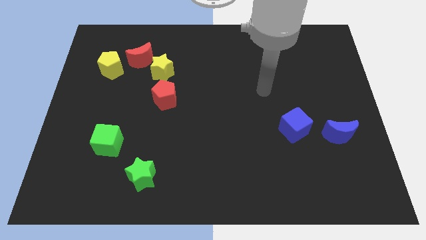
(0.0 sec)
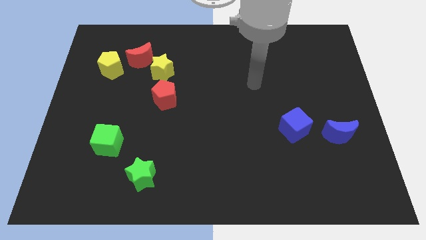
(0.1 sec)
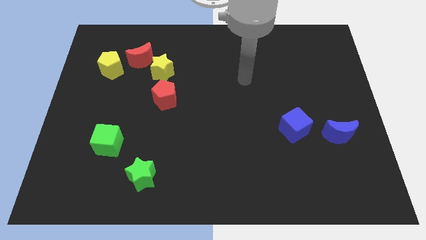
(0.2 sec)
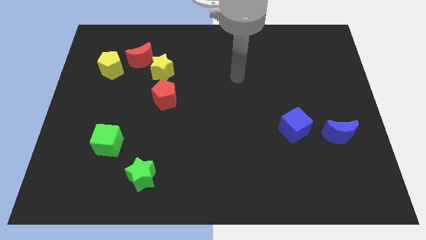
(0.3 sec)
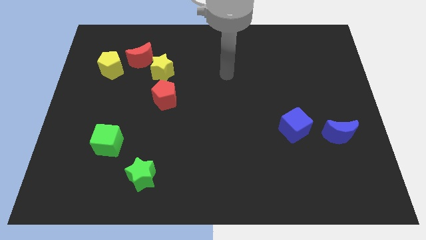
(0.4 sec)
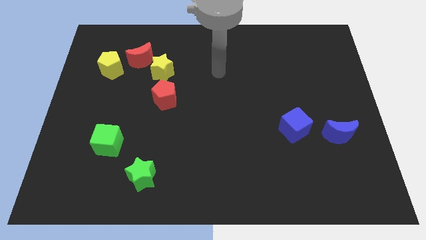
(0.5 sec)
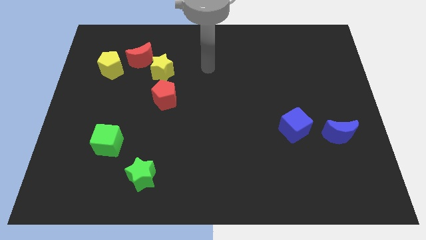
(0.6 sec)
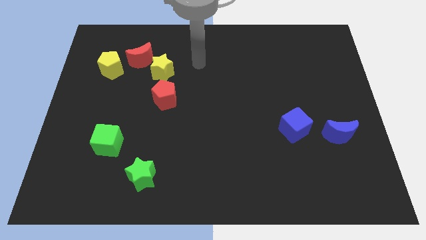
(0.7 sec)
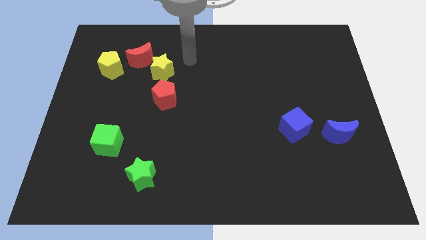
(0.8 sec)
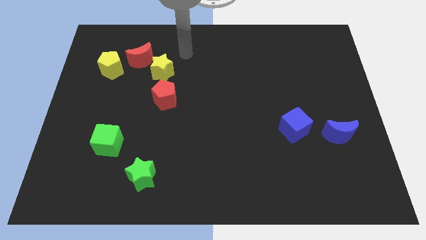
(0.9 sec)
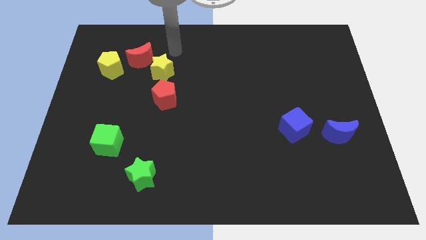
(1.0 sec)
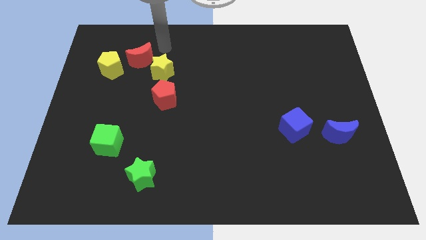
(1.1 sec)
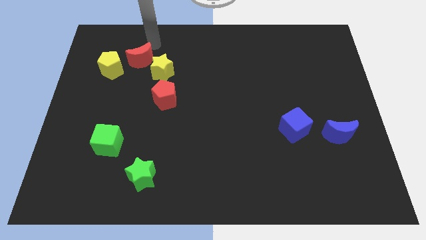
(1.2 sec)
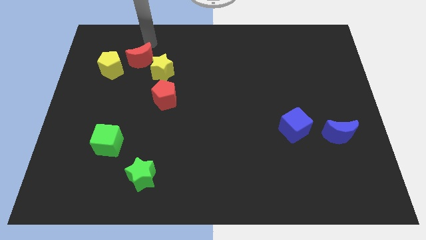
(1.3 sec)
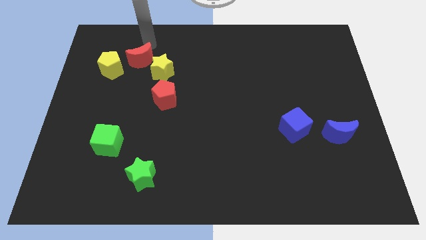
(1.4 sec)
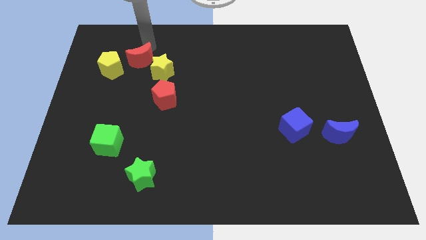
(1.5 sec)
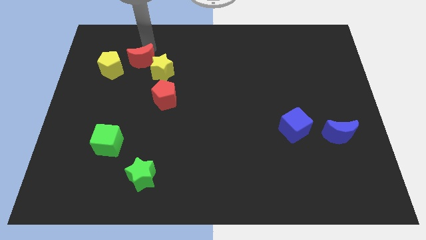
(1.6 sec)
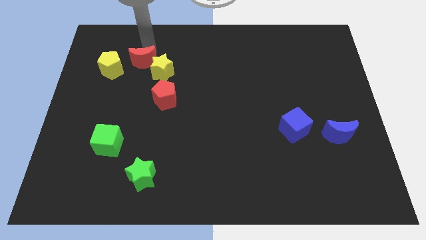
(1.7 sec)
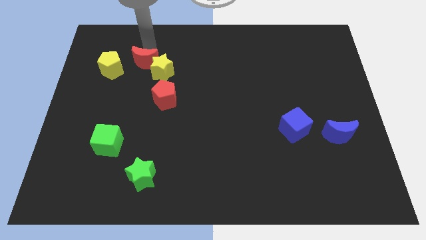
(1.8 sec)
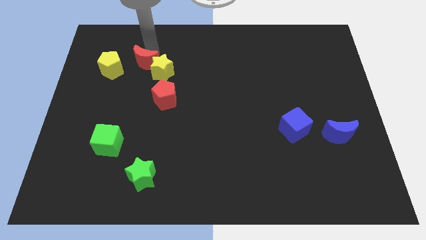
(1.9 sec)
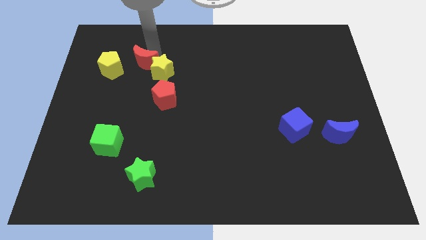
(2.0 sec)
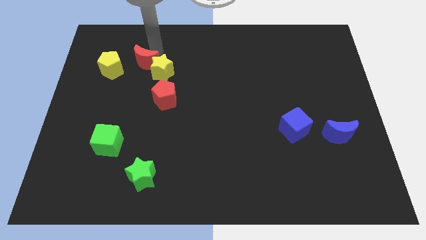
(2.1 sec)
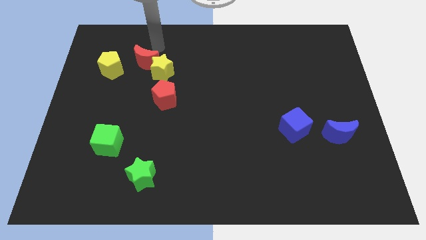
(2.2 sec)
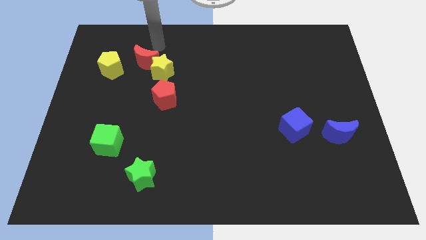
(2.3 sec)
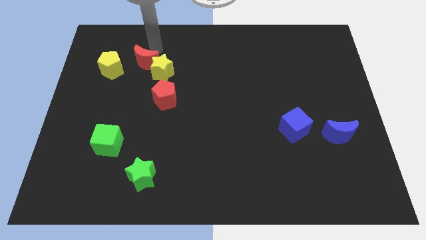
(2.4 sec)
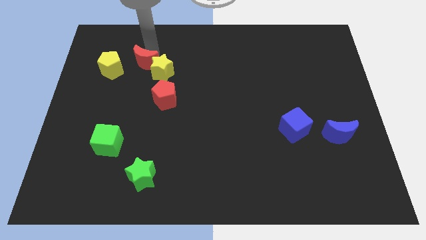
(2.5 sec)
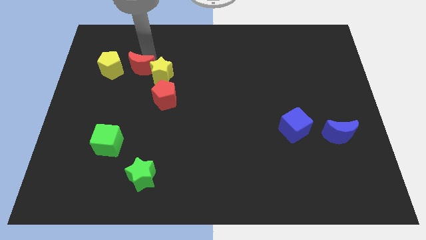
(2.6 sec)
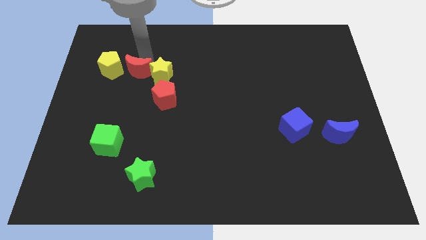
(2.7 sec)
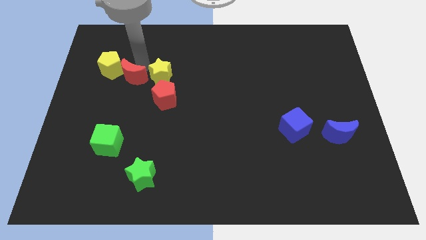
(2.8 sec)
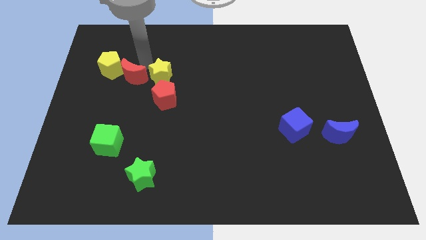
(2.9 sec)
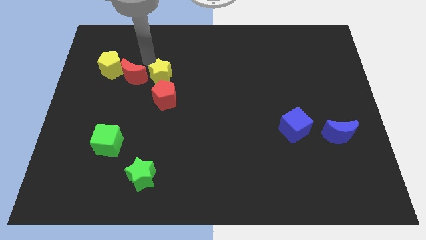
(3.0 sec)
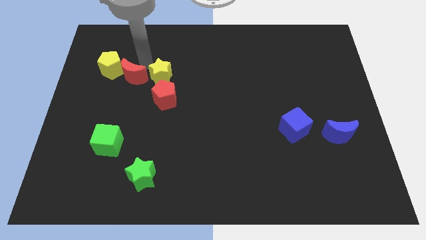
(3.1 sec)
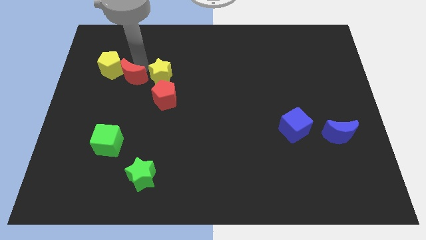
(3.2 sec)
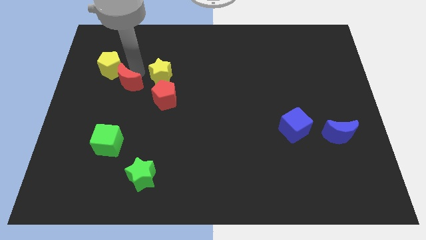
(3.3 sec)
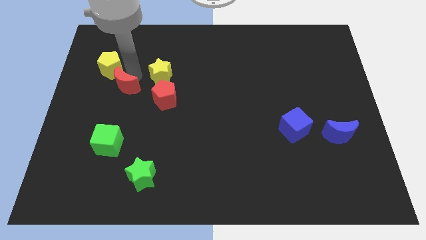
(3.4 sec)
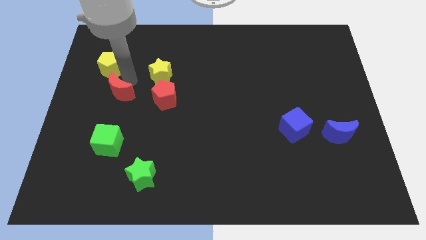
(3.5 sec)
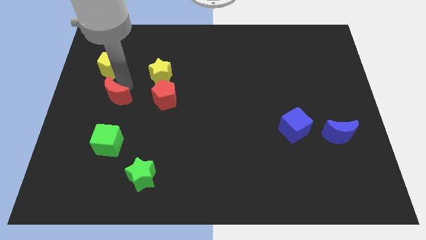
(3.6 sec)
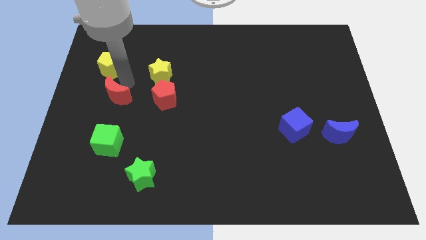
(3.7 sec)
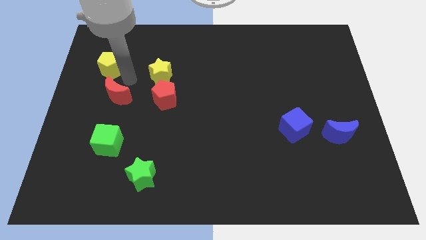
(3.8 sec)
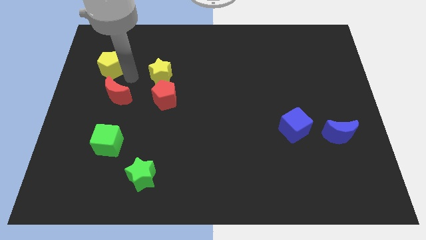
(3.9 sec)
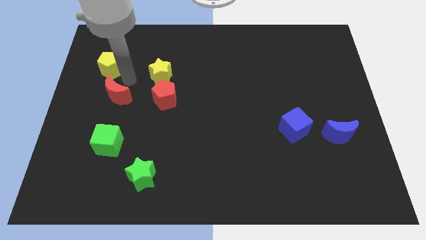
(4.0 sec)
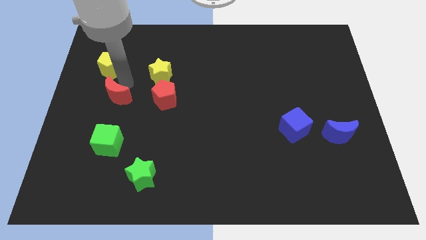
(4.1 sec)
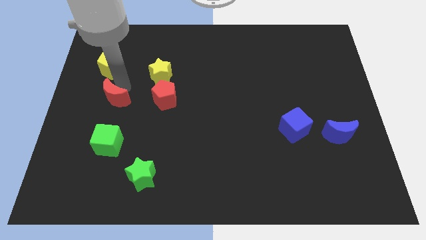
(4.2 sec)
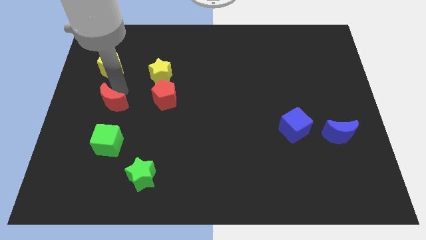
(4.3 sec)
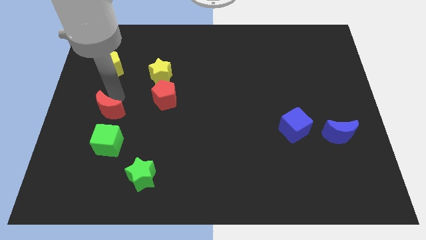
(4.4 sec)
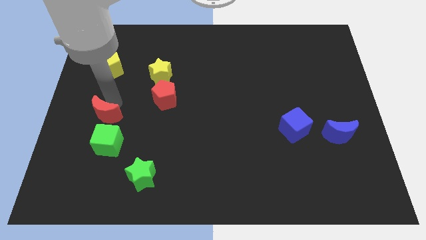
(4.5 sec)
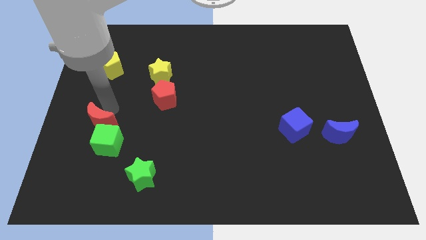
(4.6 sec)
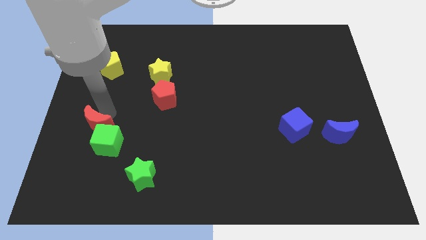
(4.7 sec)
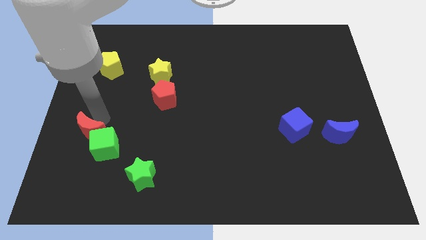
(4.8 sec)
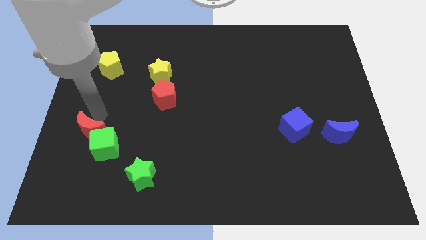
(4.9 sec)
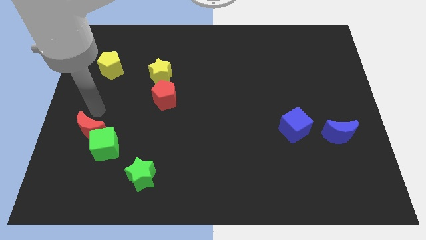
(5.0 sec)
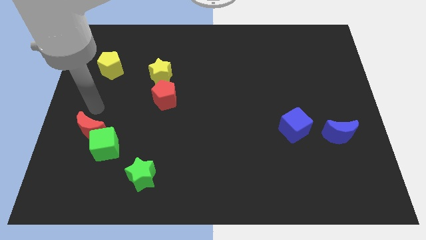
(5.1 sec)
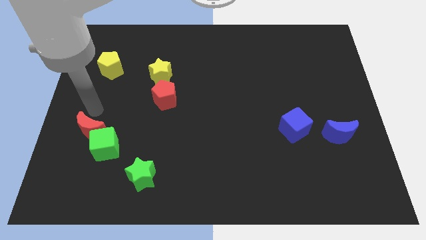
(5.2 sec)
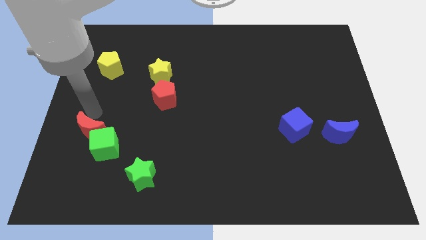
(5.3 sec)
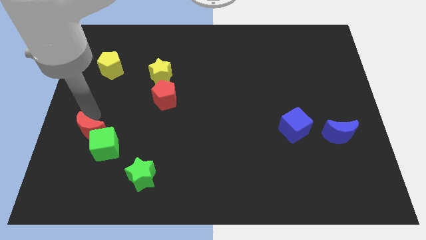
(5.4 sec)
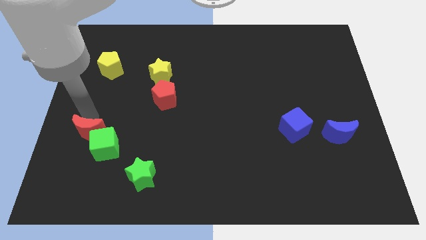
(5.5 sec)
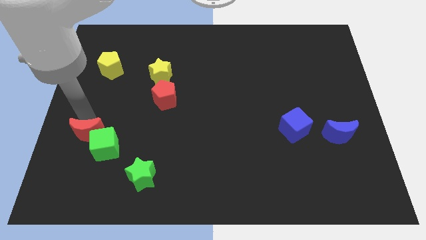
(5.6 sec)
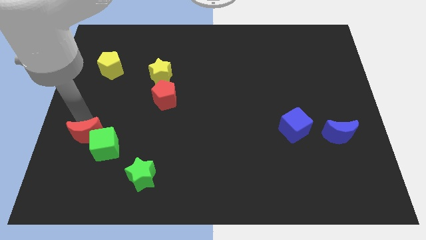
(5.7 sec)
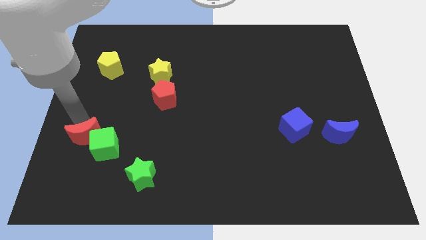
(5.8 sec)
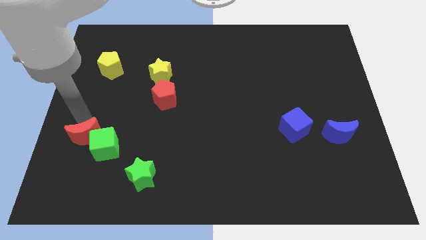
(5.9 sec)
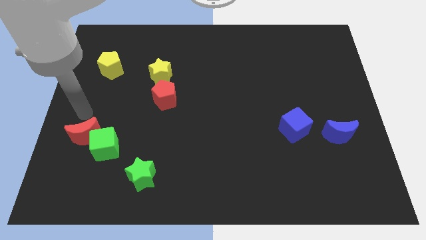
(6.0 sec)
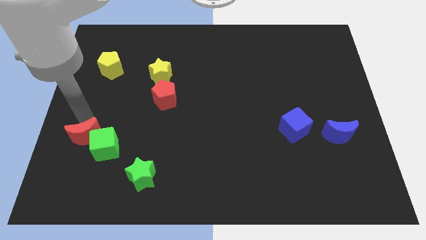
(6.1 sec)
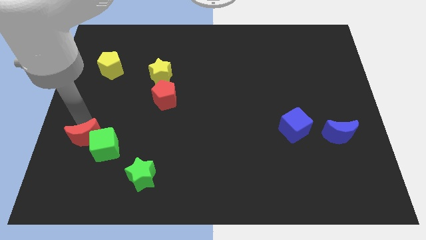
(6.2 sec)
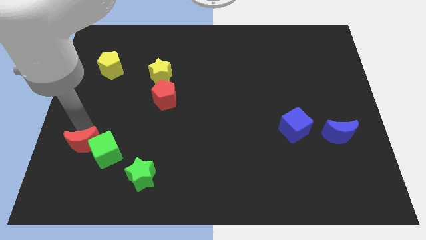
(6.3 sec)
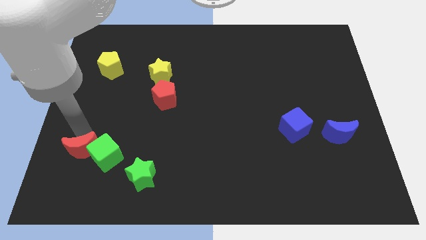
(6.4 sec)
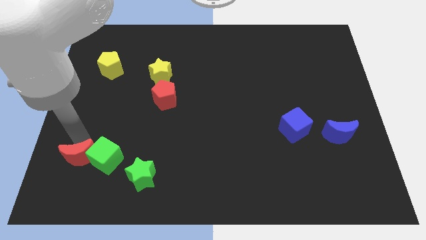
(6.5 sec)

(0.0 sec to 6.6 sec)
slide the red moon left of the green star
